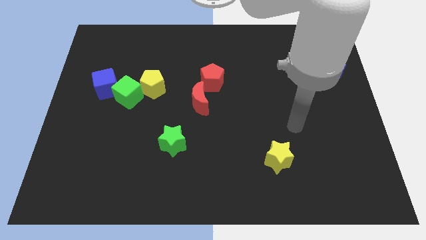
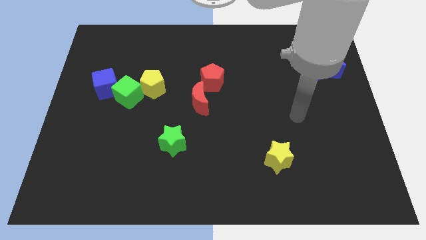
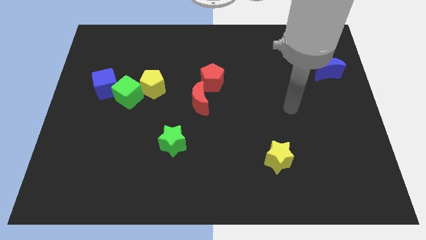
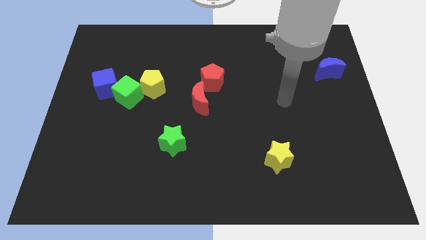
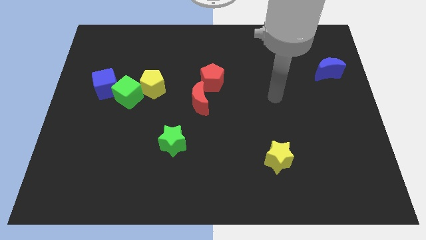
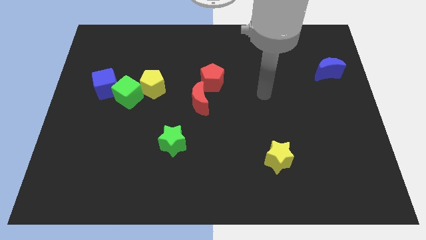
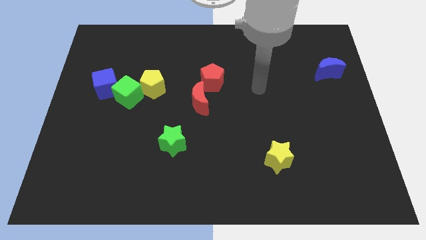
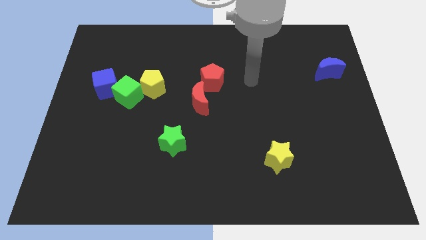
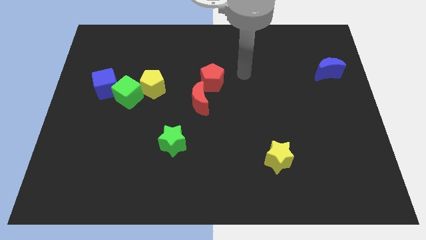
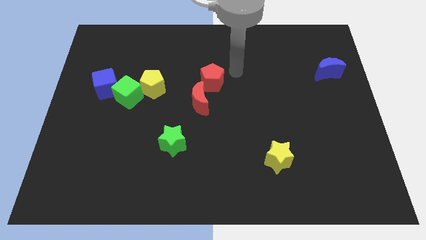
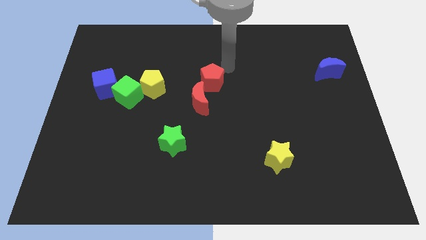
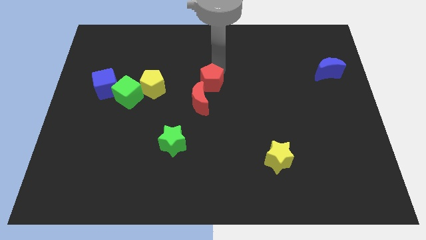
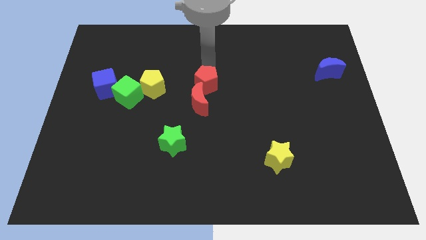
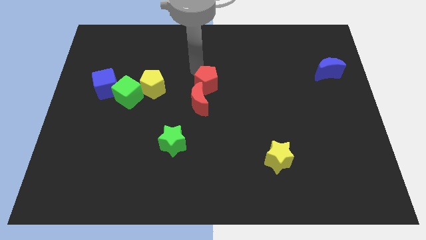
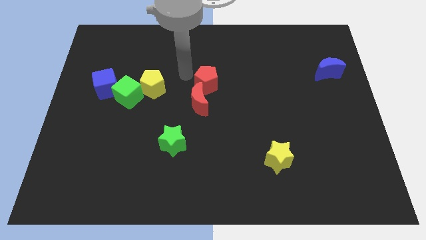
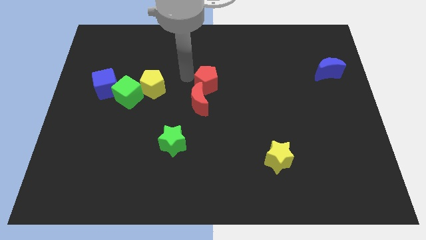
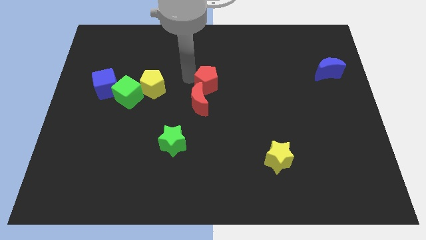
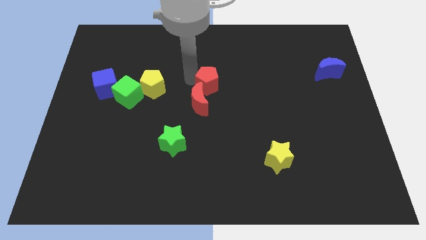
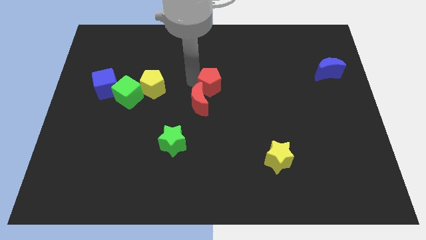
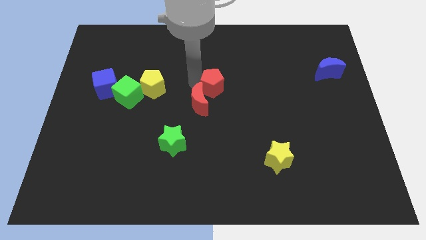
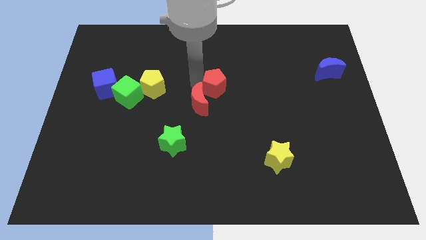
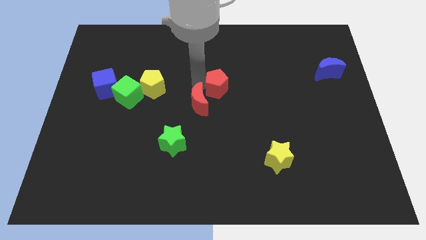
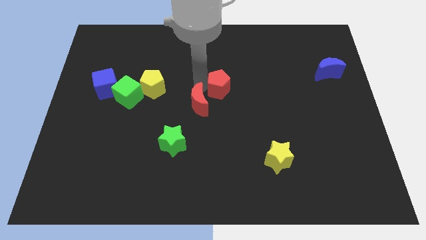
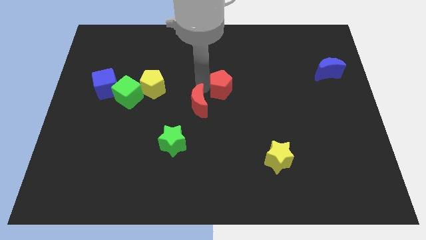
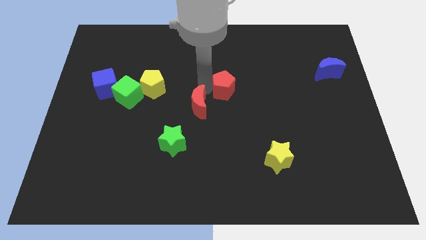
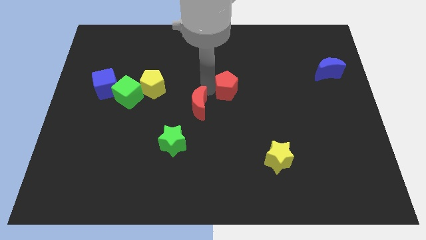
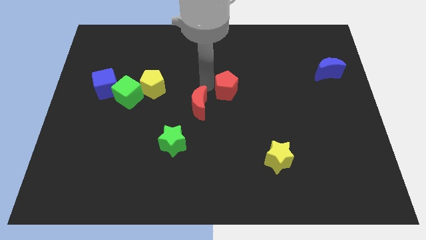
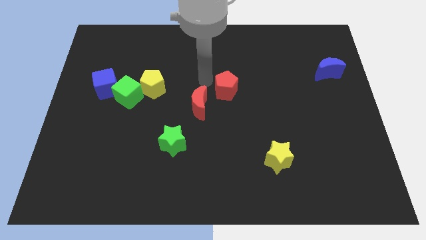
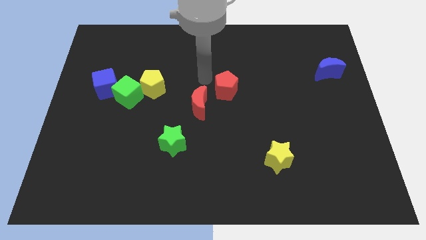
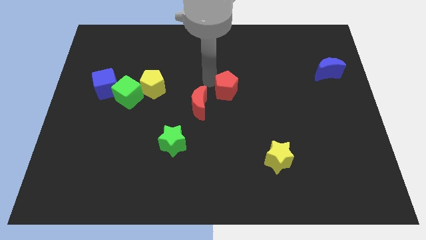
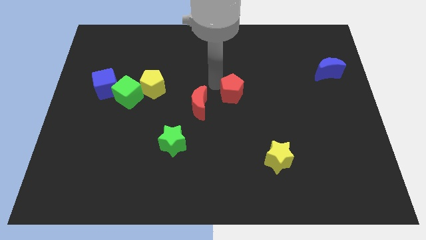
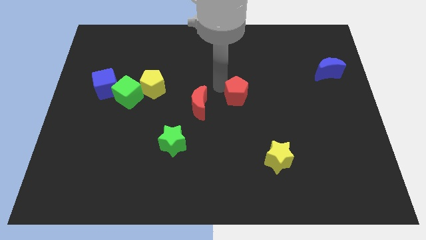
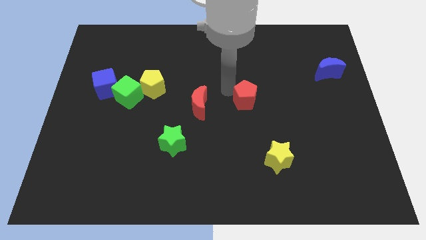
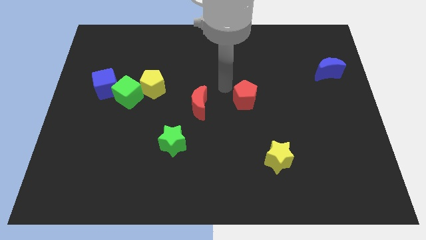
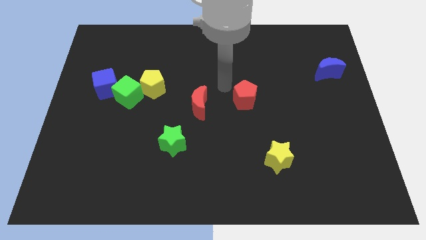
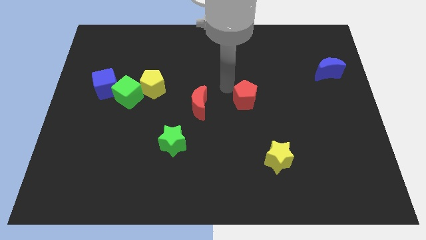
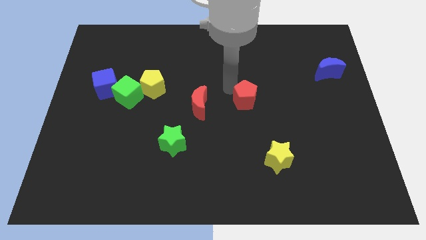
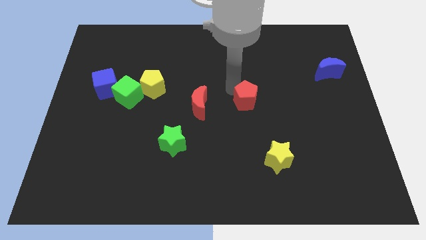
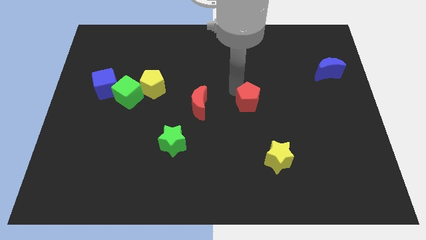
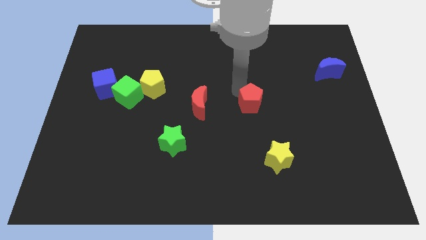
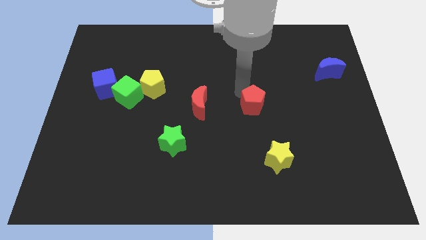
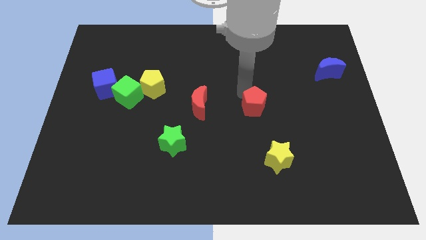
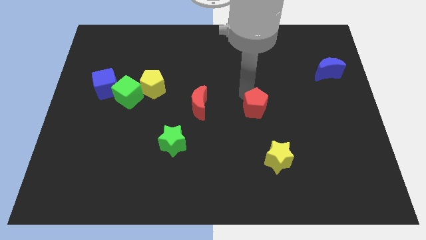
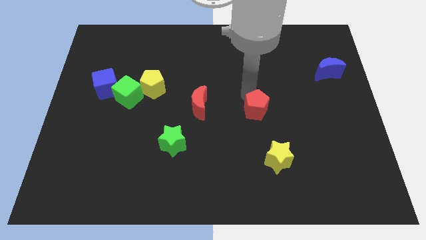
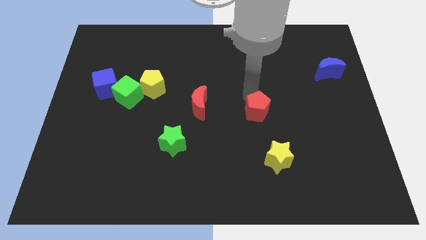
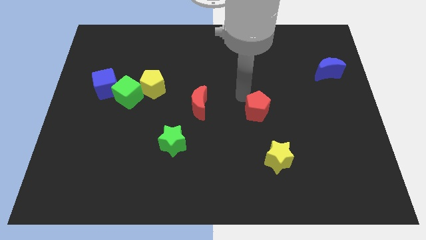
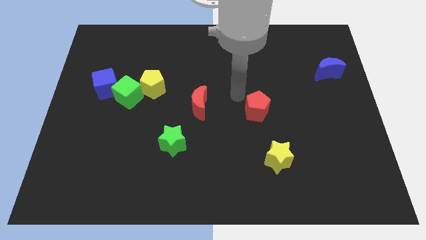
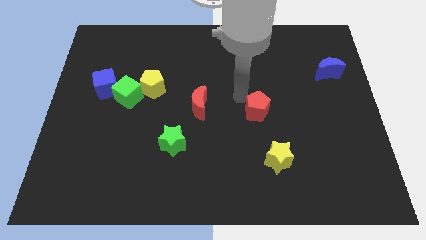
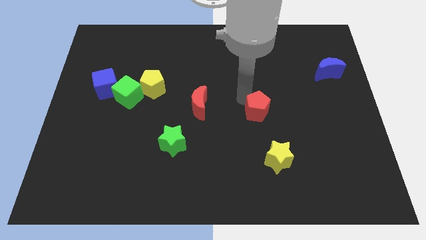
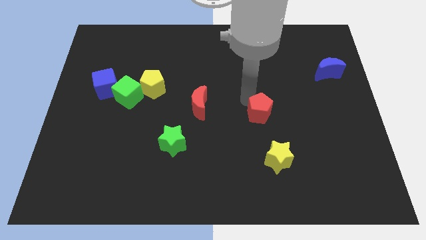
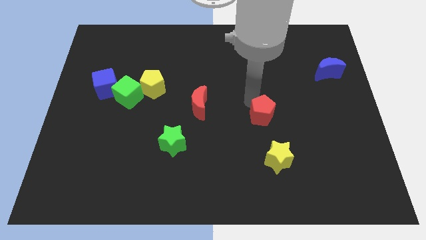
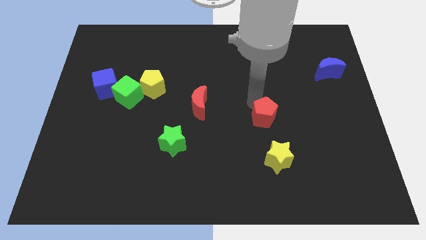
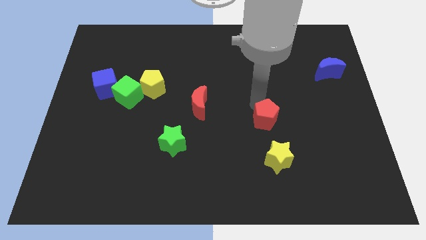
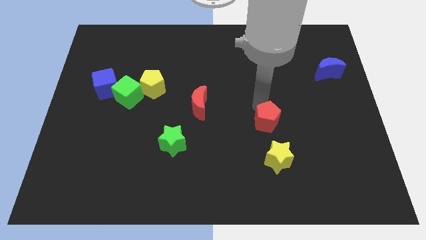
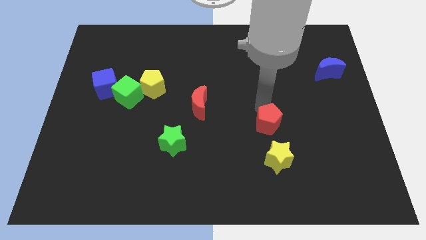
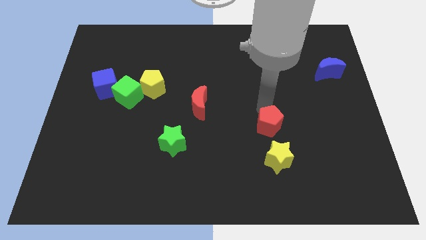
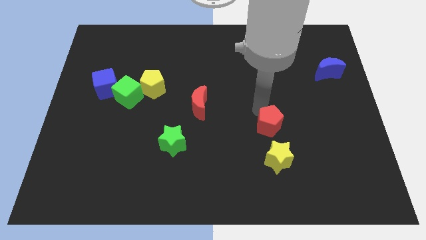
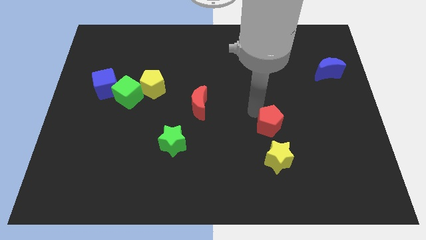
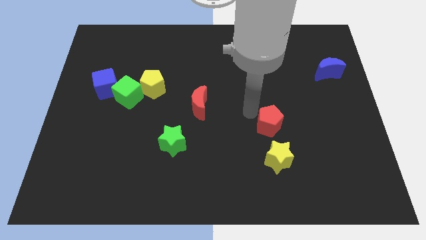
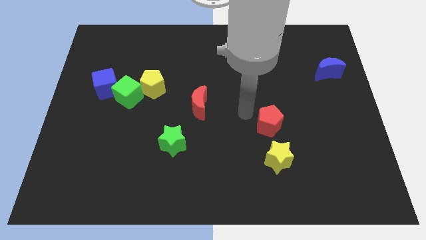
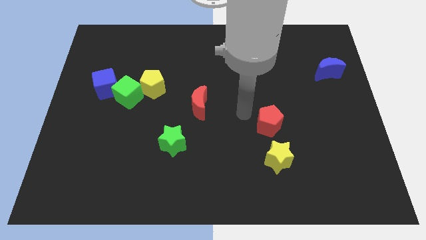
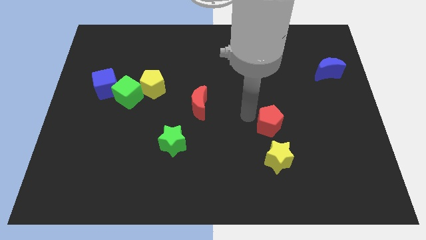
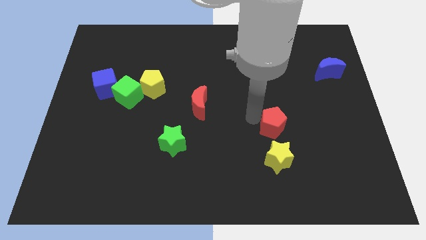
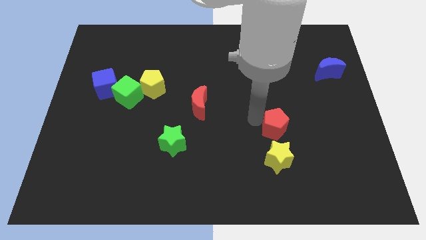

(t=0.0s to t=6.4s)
move the red pentagon downwards and right diagonally

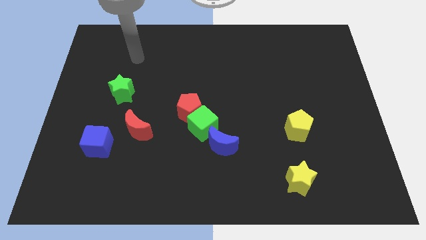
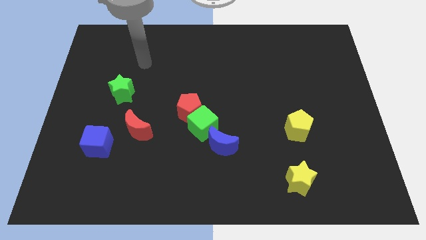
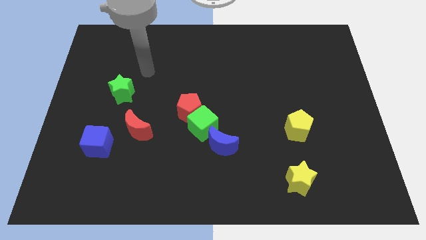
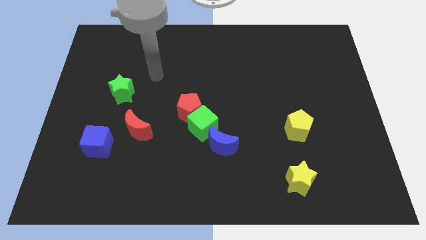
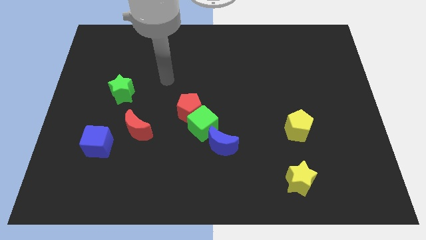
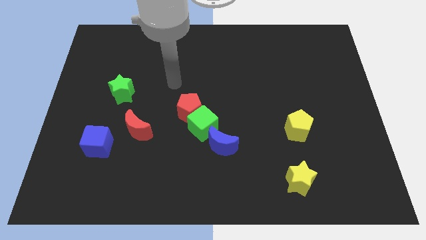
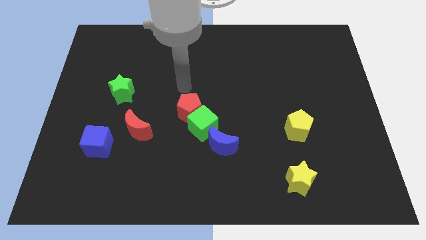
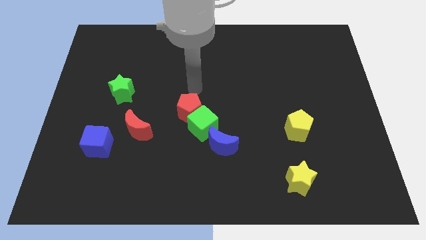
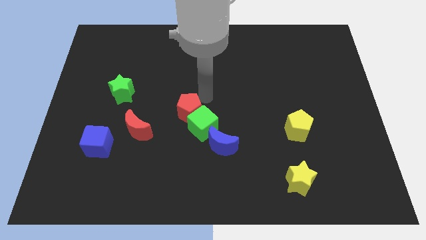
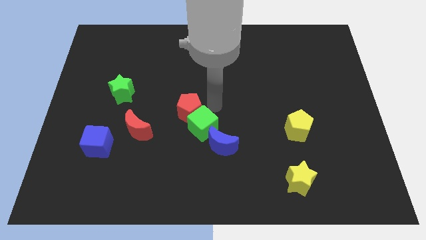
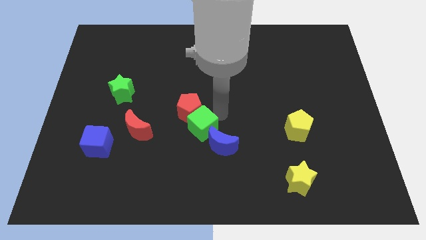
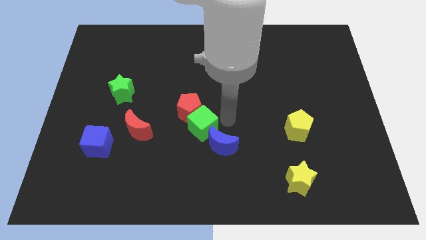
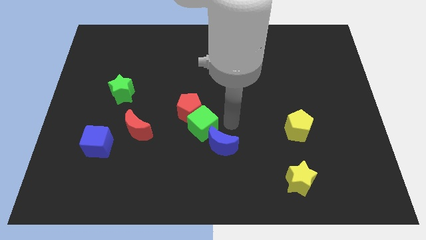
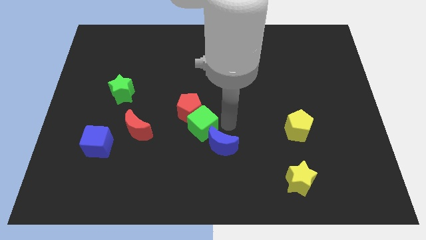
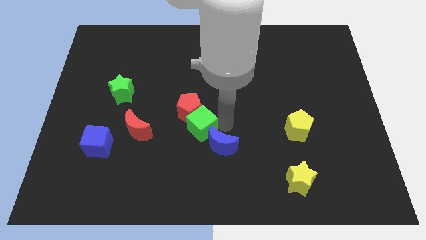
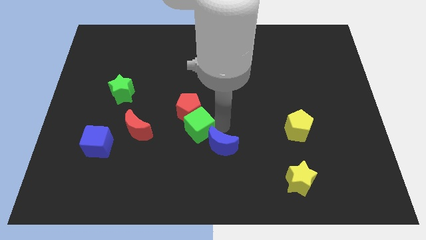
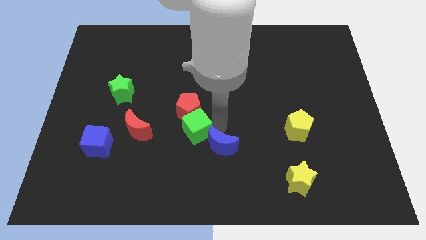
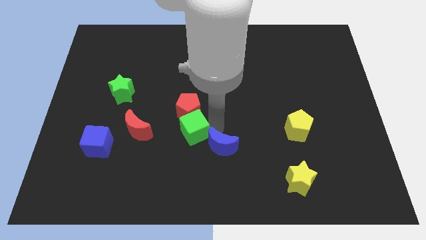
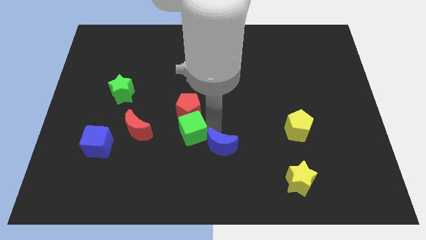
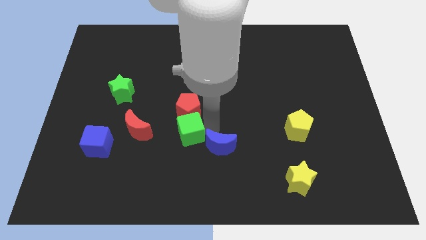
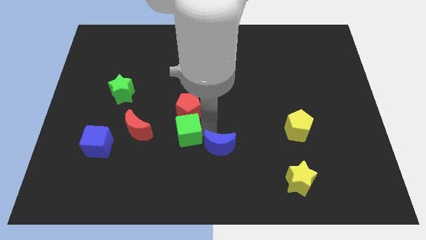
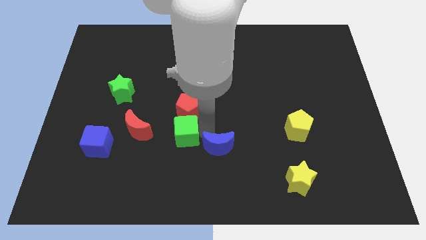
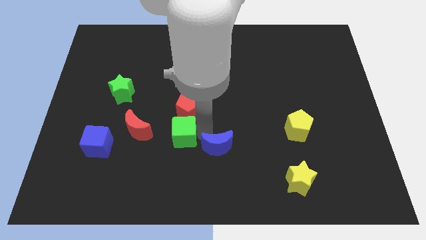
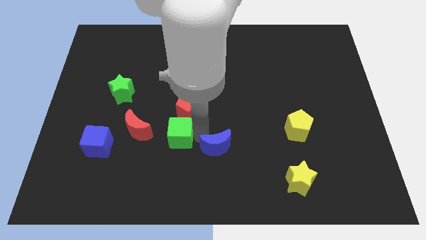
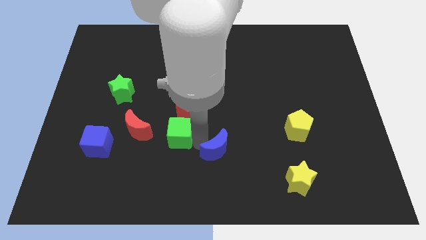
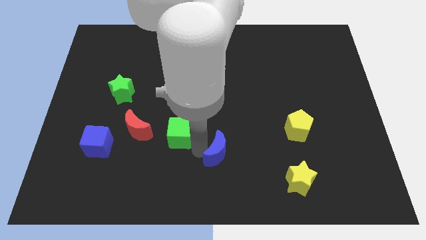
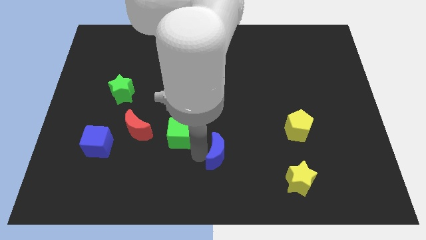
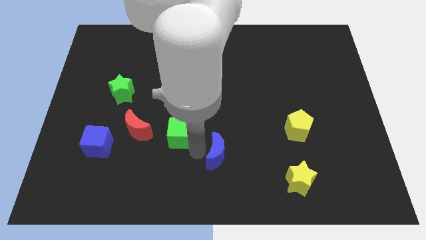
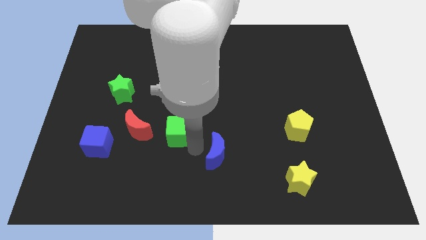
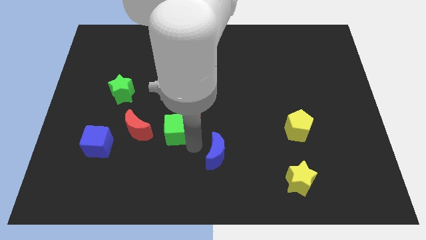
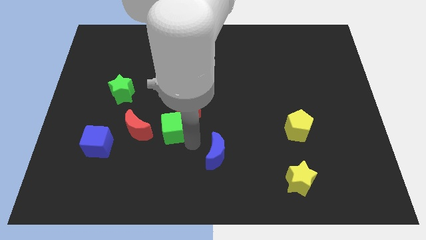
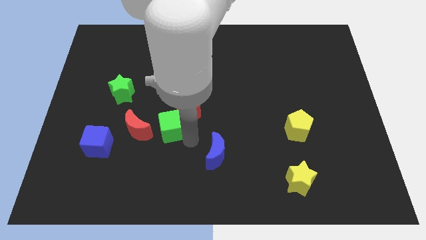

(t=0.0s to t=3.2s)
slightly move the green cube to the left
